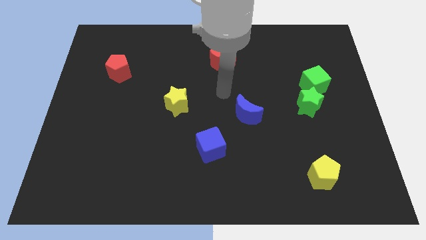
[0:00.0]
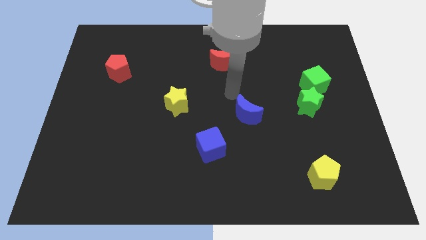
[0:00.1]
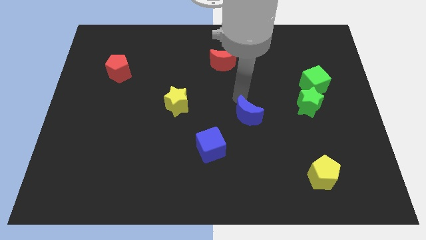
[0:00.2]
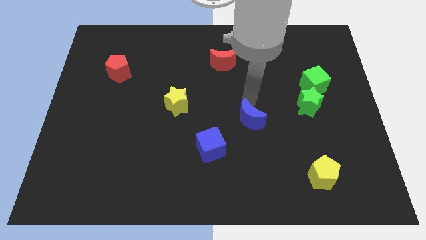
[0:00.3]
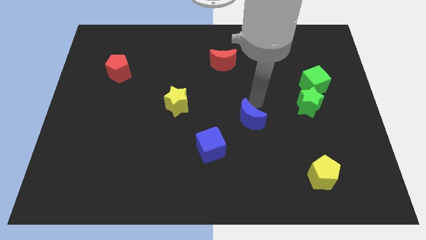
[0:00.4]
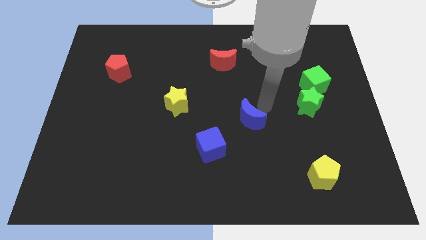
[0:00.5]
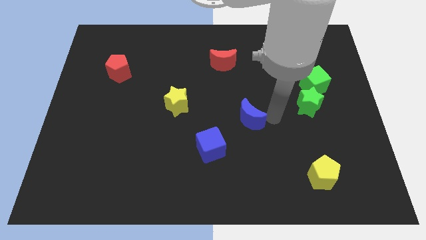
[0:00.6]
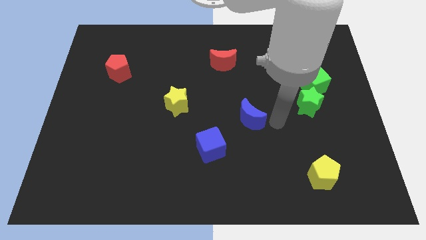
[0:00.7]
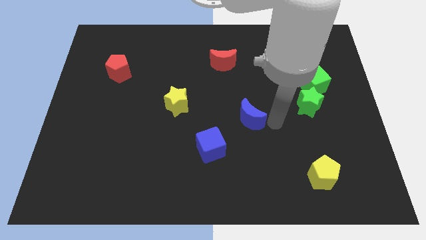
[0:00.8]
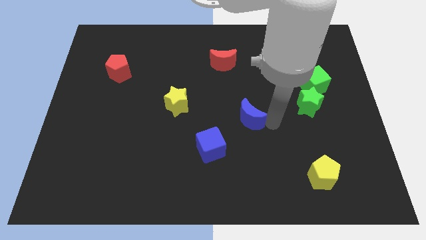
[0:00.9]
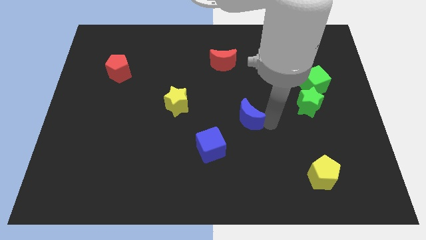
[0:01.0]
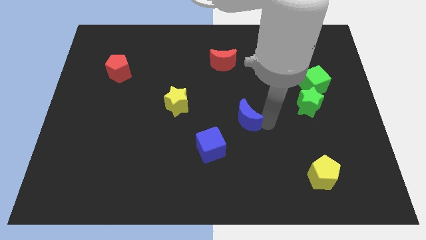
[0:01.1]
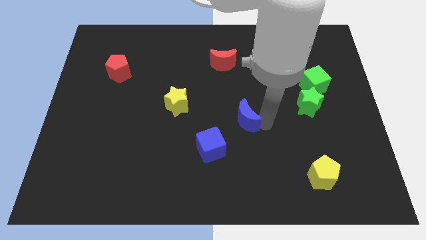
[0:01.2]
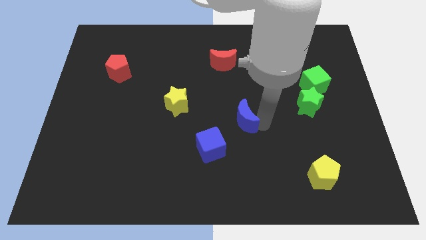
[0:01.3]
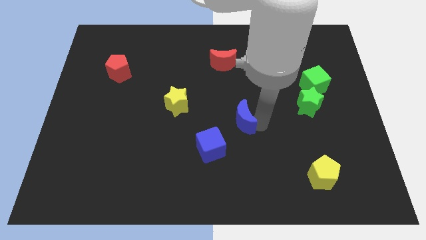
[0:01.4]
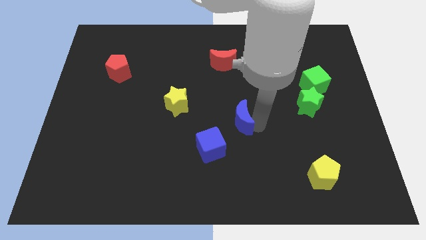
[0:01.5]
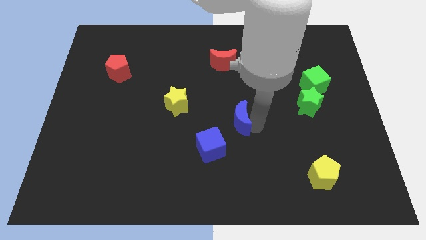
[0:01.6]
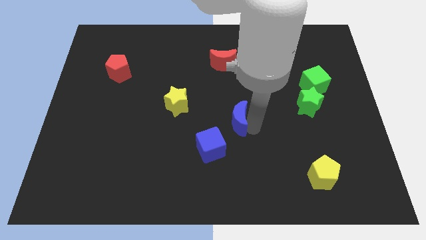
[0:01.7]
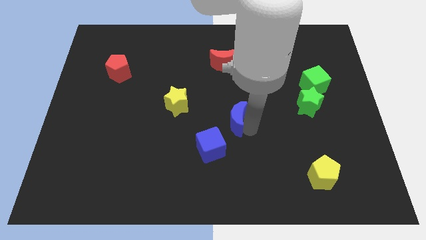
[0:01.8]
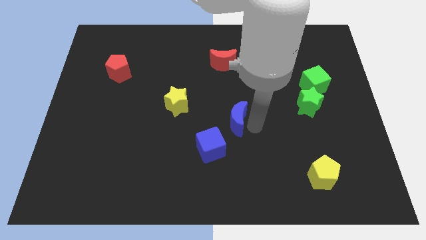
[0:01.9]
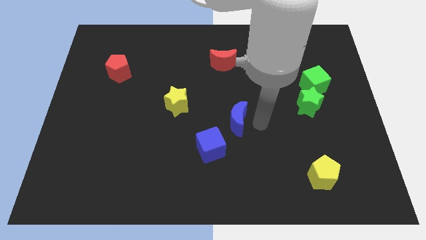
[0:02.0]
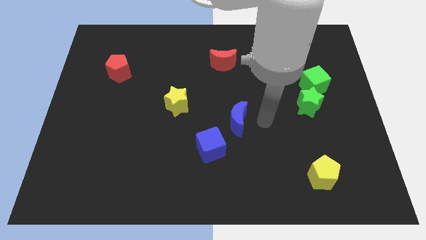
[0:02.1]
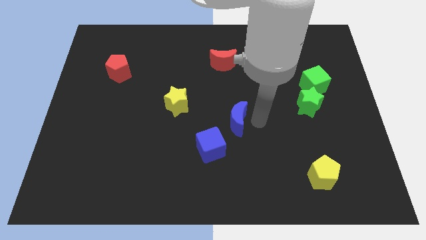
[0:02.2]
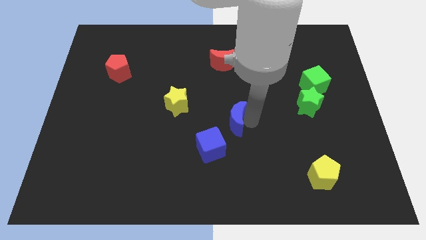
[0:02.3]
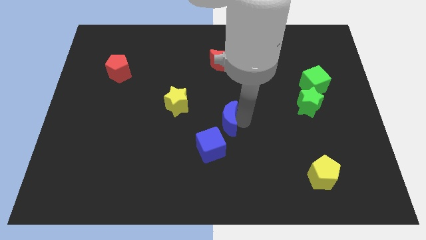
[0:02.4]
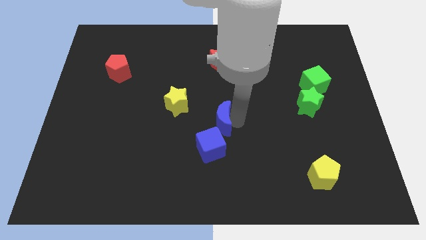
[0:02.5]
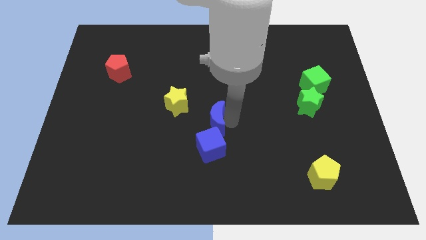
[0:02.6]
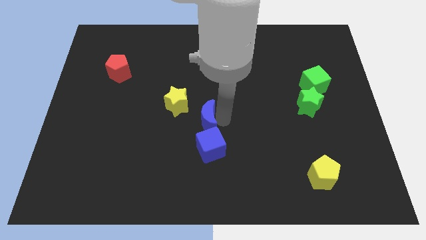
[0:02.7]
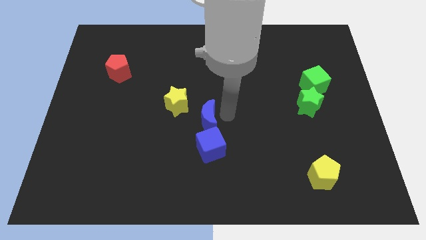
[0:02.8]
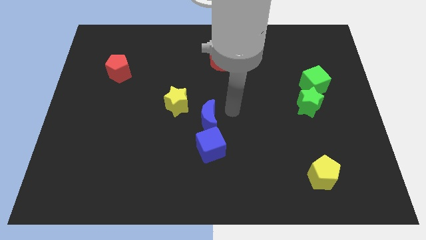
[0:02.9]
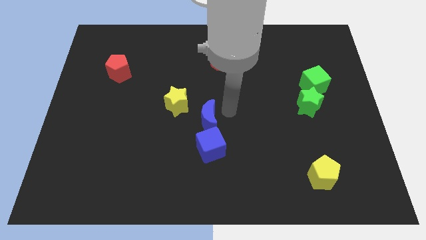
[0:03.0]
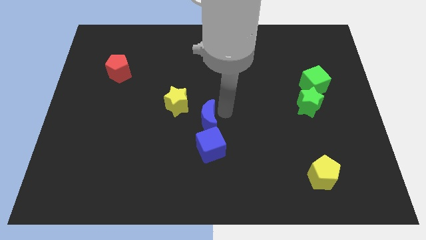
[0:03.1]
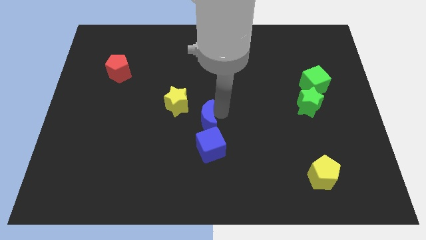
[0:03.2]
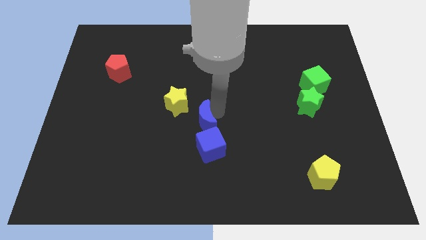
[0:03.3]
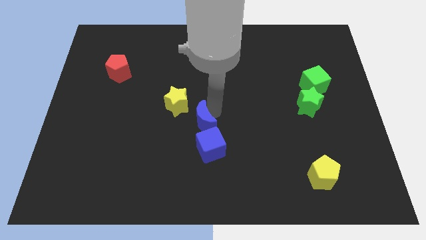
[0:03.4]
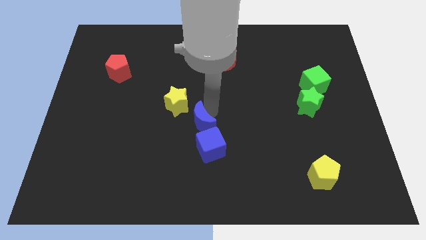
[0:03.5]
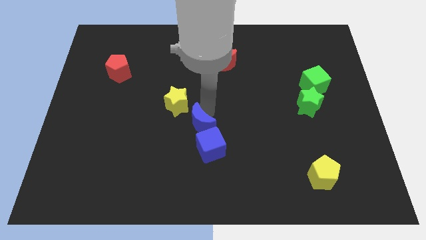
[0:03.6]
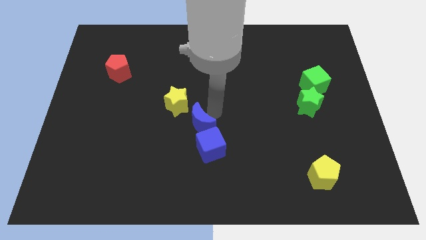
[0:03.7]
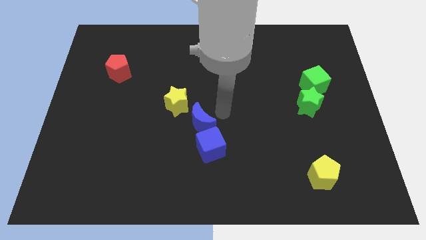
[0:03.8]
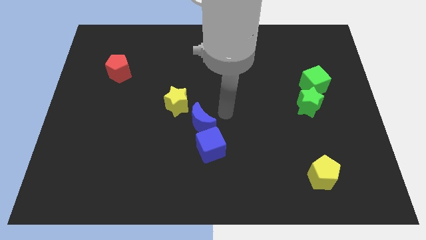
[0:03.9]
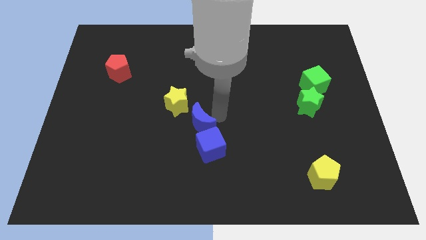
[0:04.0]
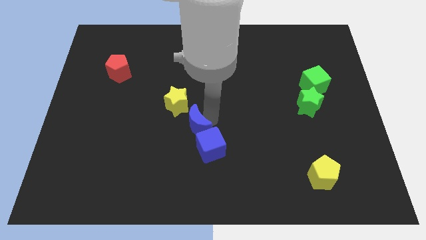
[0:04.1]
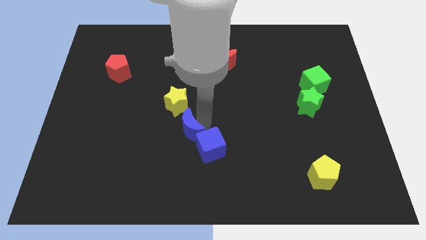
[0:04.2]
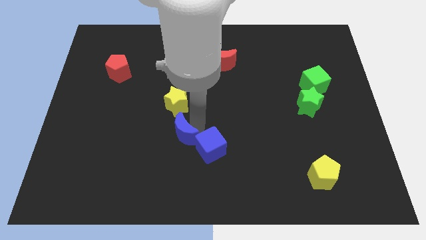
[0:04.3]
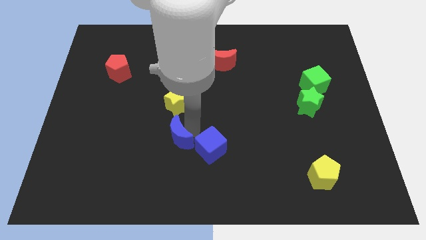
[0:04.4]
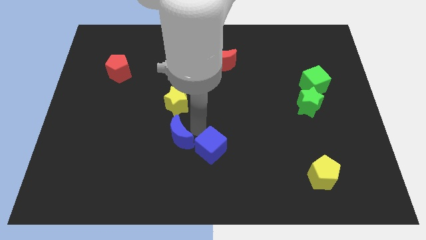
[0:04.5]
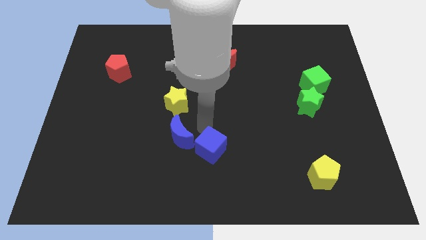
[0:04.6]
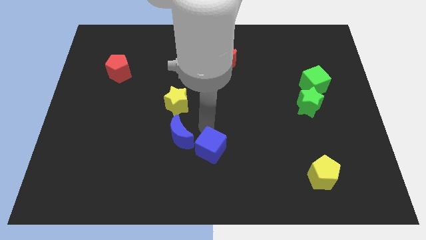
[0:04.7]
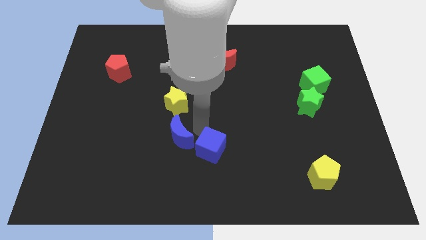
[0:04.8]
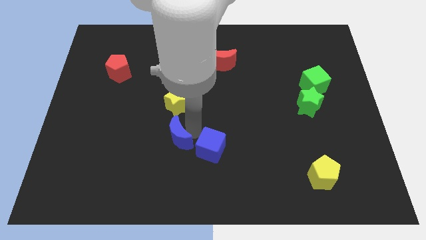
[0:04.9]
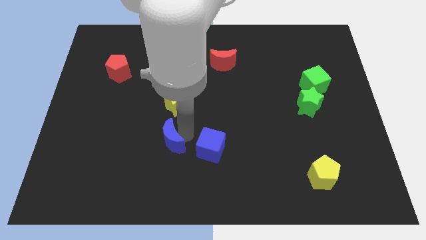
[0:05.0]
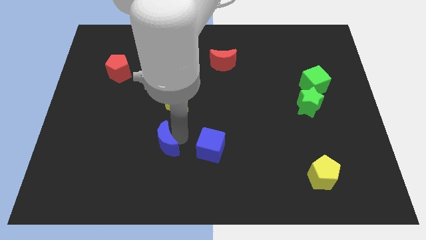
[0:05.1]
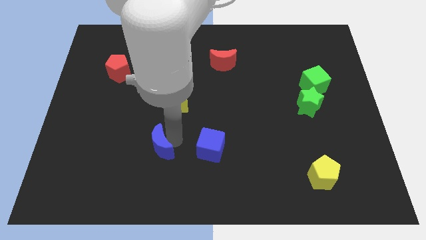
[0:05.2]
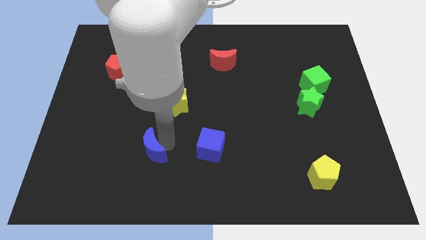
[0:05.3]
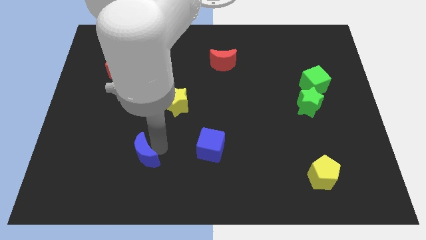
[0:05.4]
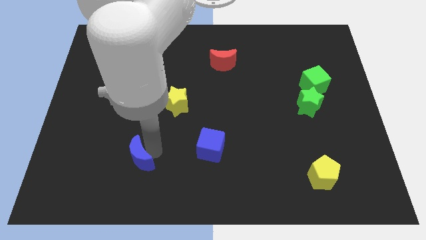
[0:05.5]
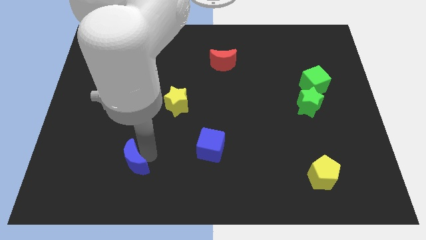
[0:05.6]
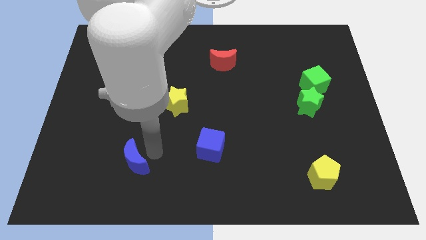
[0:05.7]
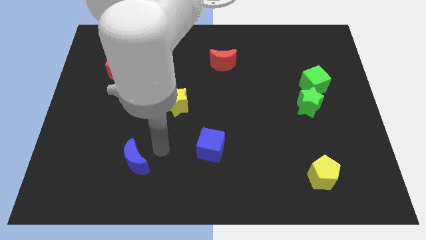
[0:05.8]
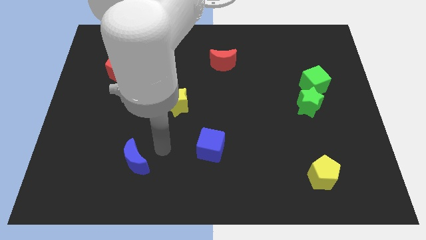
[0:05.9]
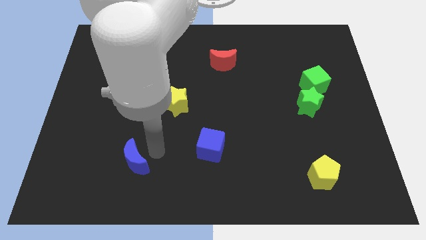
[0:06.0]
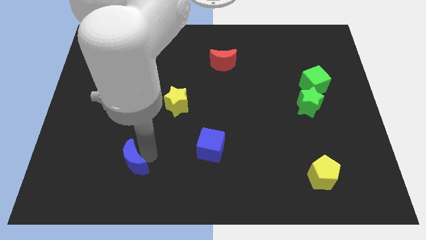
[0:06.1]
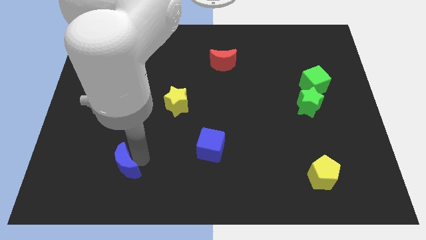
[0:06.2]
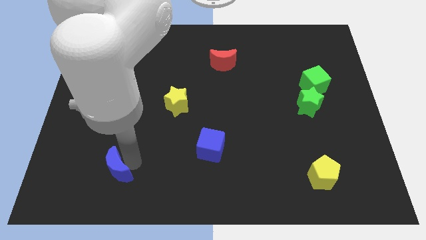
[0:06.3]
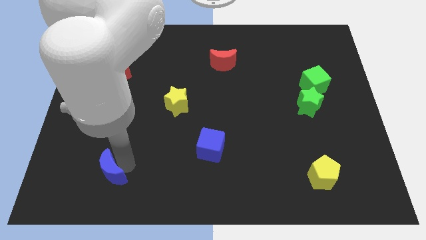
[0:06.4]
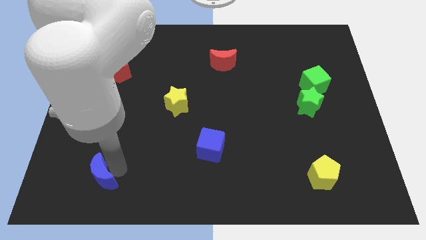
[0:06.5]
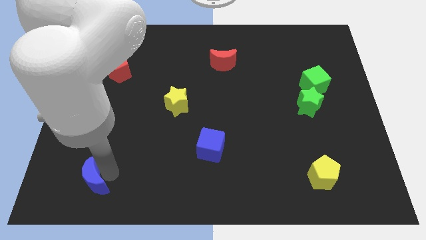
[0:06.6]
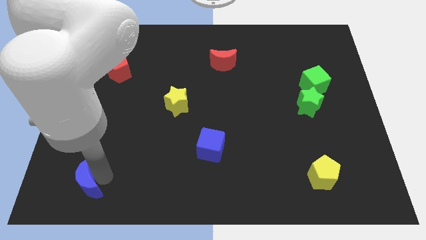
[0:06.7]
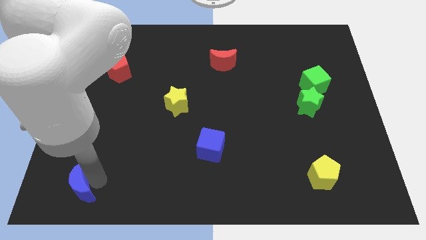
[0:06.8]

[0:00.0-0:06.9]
slide the blue moon to the lower left corner

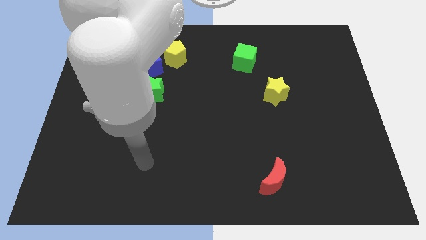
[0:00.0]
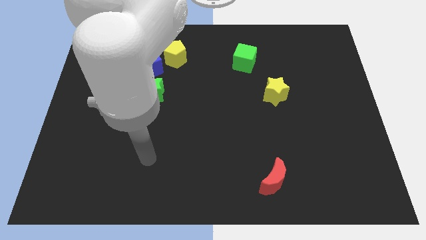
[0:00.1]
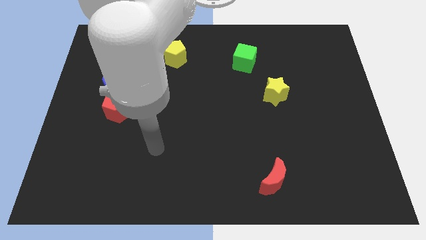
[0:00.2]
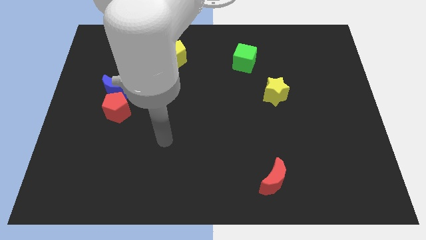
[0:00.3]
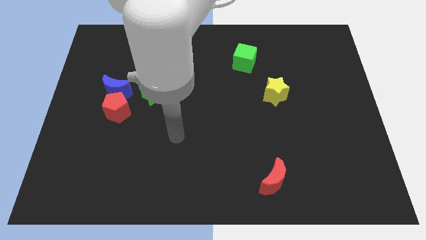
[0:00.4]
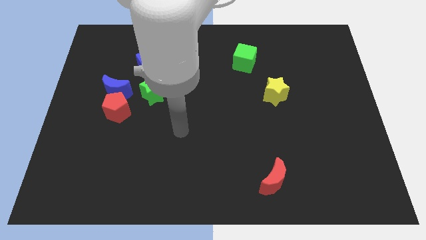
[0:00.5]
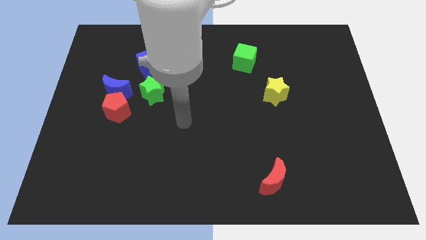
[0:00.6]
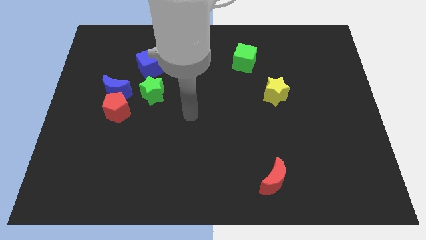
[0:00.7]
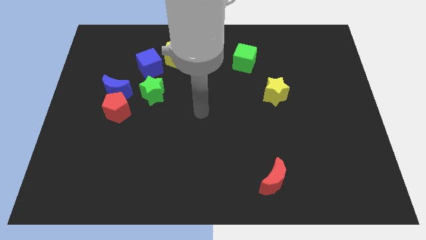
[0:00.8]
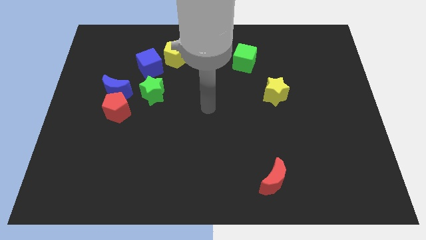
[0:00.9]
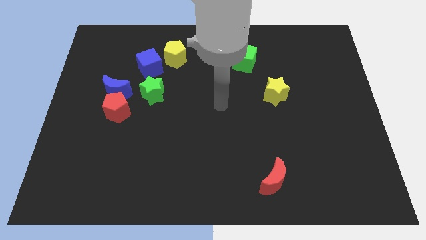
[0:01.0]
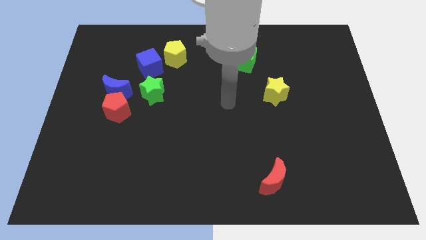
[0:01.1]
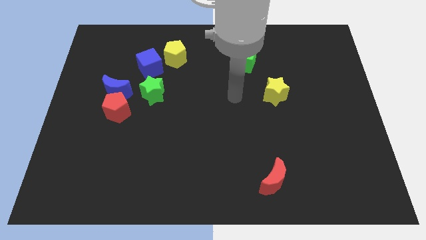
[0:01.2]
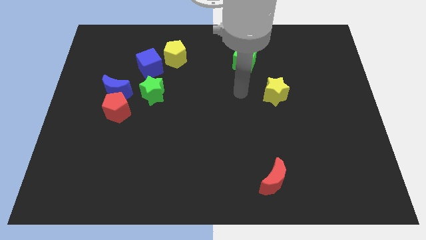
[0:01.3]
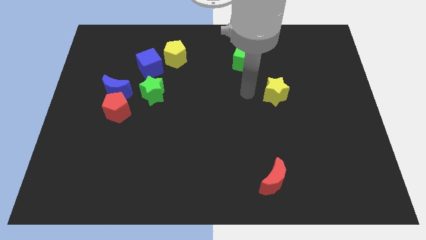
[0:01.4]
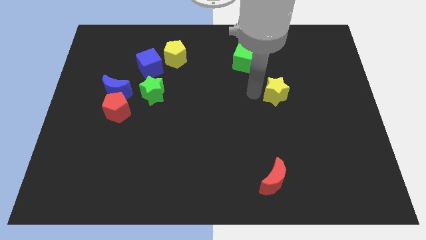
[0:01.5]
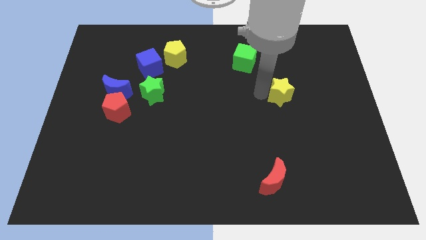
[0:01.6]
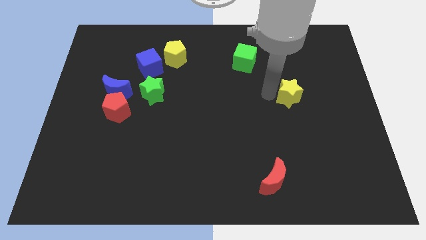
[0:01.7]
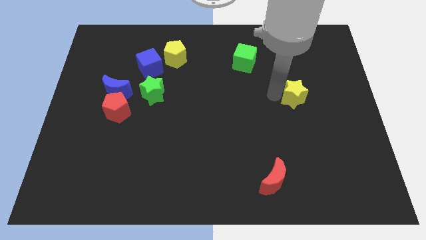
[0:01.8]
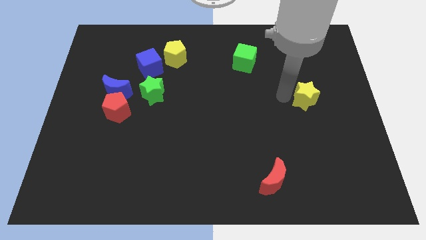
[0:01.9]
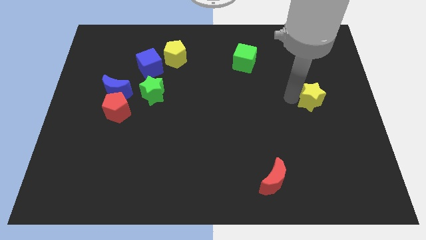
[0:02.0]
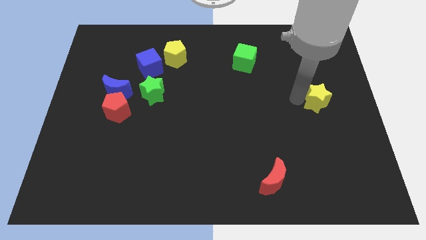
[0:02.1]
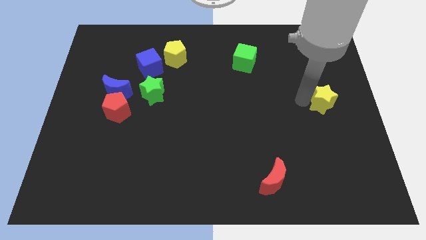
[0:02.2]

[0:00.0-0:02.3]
slide the yellow star to the right side
